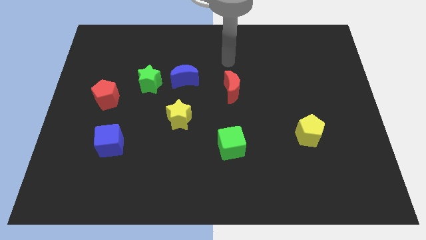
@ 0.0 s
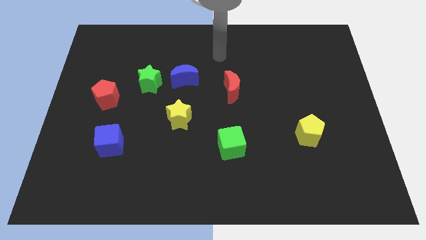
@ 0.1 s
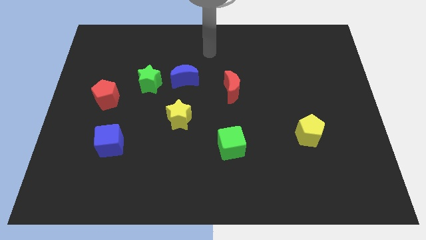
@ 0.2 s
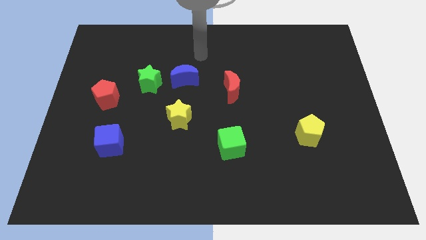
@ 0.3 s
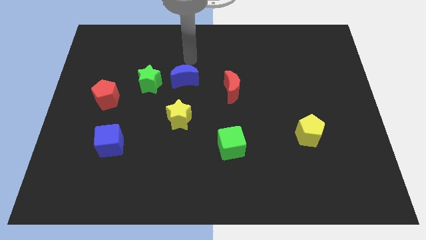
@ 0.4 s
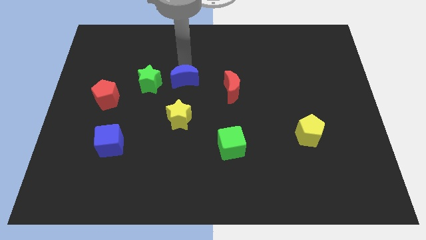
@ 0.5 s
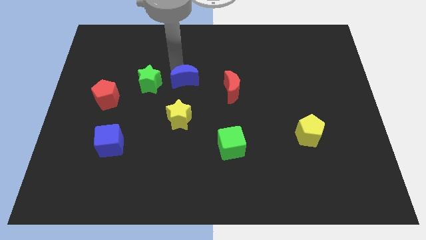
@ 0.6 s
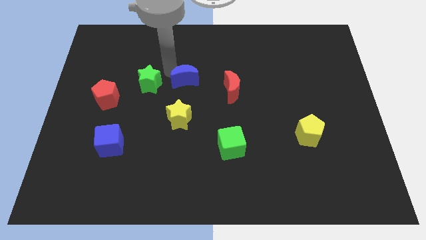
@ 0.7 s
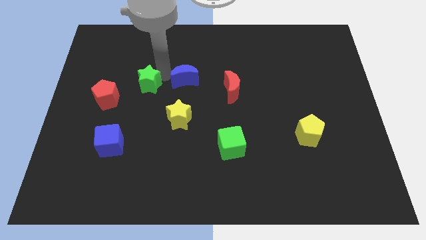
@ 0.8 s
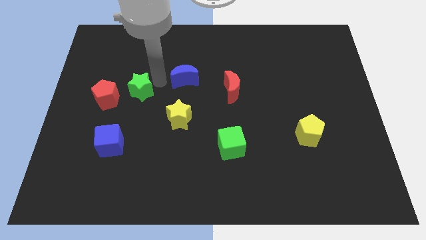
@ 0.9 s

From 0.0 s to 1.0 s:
move the blue moon away from the green star

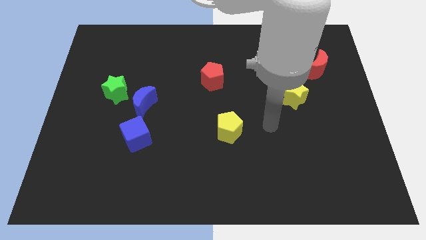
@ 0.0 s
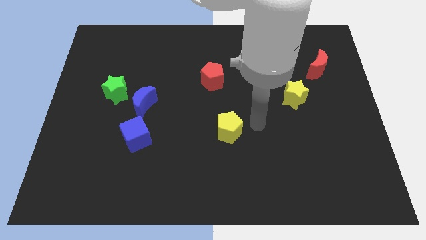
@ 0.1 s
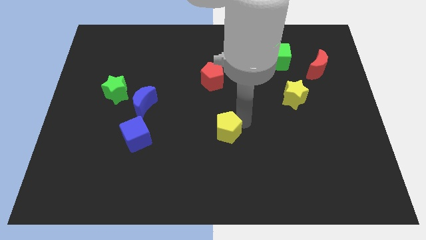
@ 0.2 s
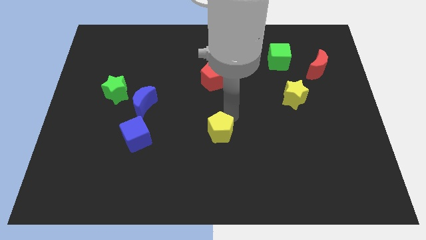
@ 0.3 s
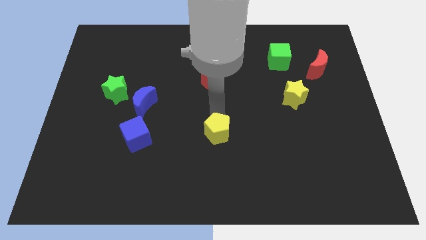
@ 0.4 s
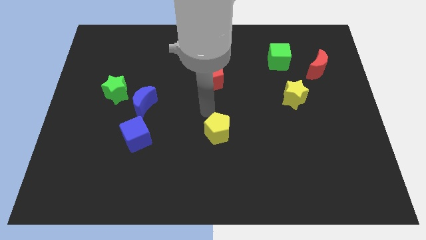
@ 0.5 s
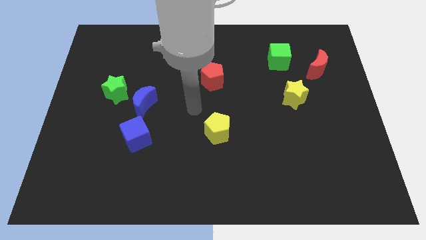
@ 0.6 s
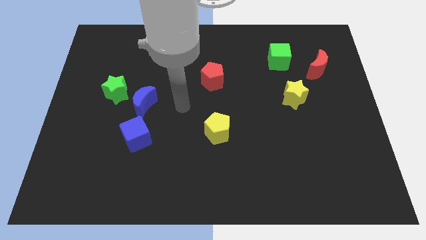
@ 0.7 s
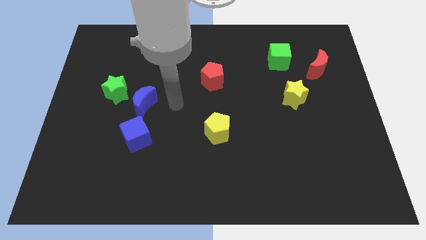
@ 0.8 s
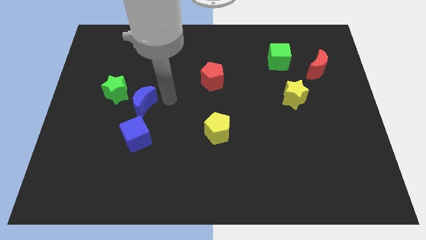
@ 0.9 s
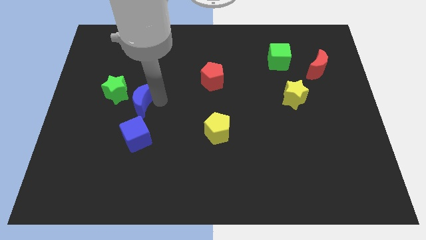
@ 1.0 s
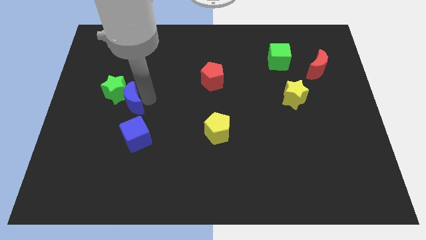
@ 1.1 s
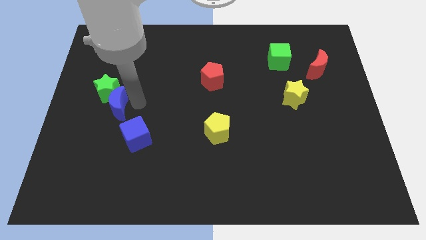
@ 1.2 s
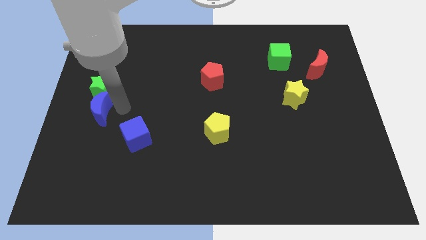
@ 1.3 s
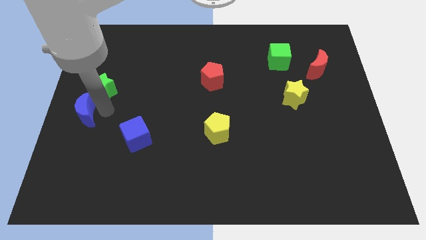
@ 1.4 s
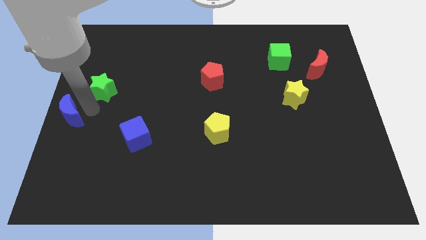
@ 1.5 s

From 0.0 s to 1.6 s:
separate the green star from the blue moon

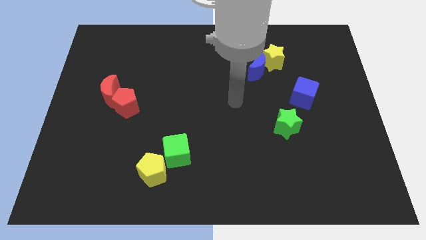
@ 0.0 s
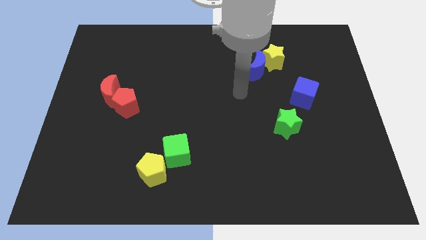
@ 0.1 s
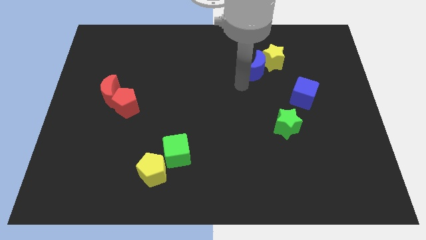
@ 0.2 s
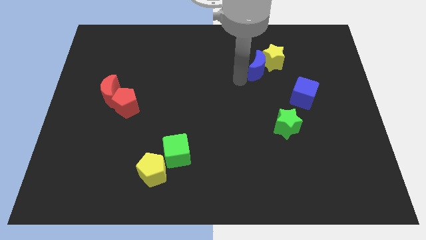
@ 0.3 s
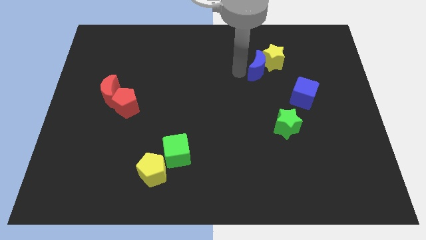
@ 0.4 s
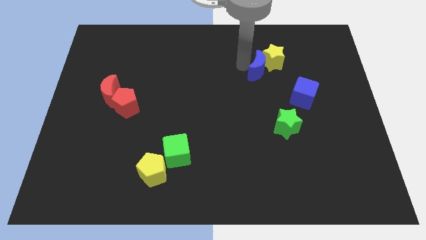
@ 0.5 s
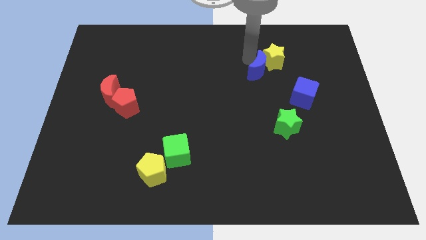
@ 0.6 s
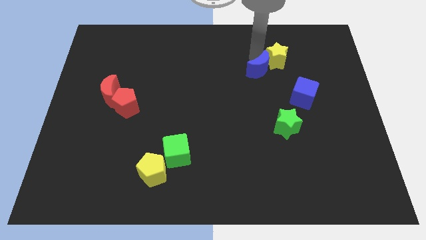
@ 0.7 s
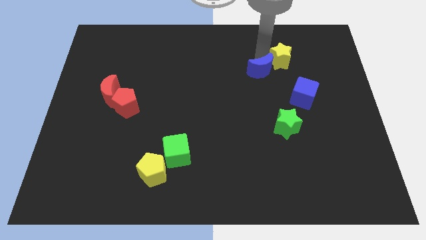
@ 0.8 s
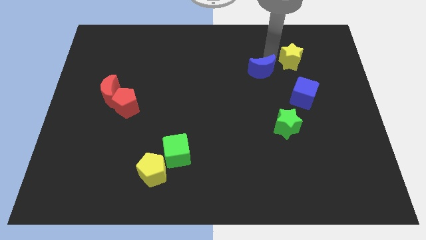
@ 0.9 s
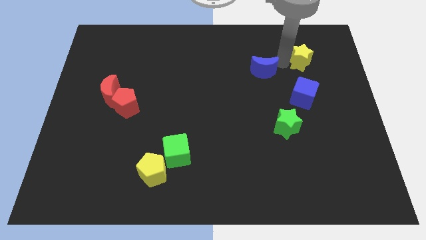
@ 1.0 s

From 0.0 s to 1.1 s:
separate the blue moon from the yellow star

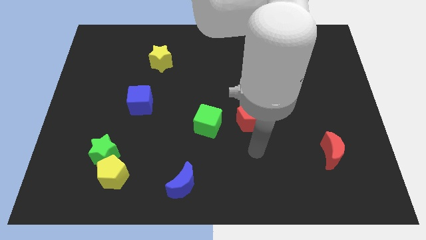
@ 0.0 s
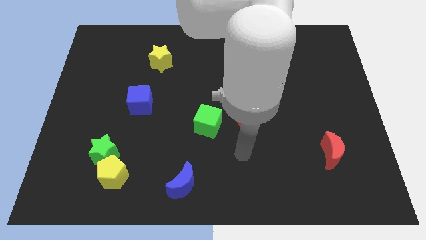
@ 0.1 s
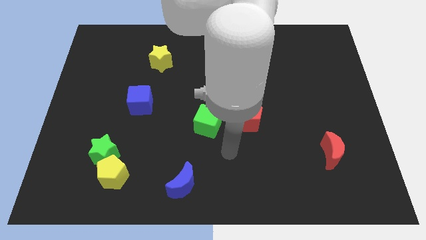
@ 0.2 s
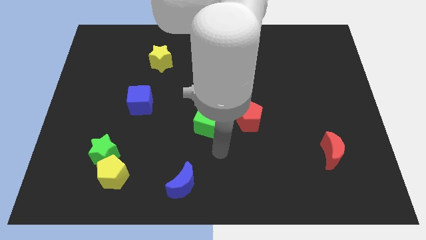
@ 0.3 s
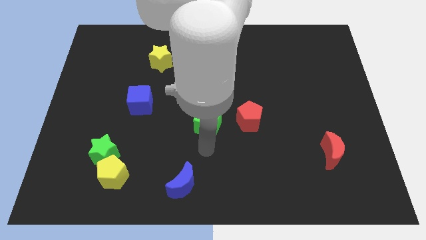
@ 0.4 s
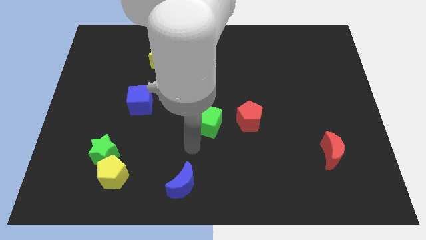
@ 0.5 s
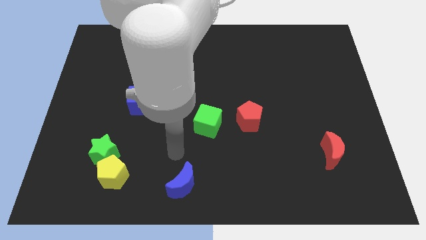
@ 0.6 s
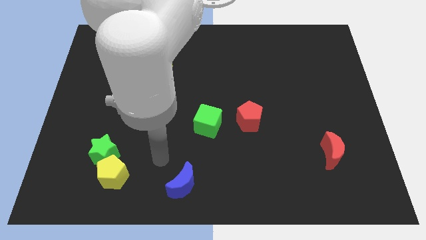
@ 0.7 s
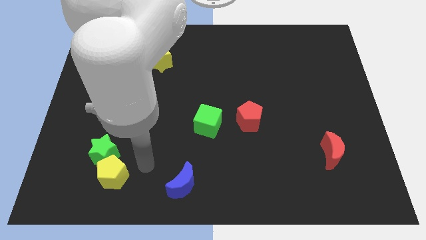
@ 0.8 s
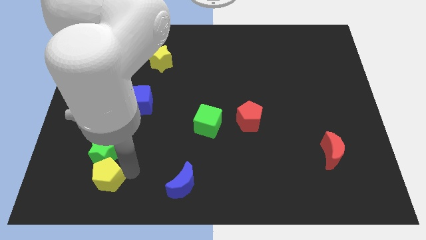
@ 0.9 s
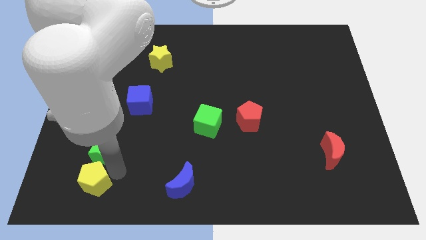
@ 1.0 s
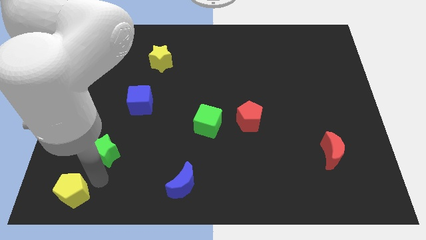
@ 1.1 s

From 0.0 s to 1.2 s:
pull the green star apart from the yellow pentagon

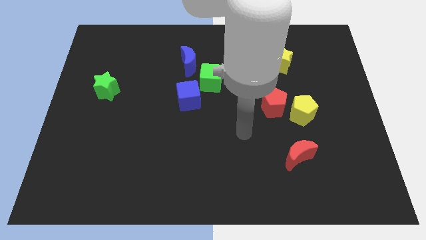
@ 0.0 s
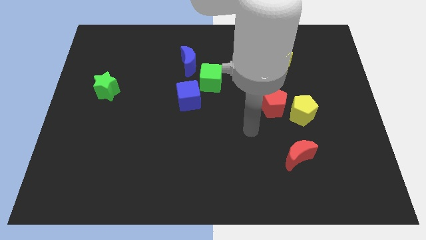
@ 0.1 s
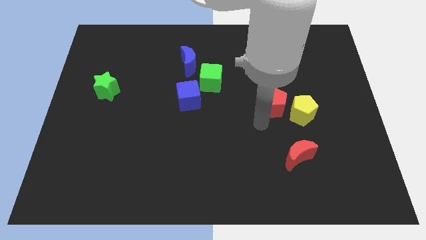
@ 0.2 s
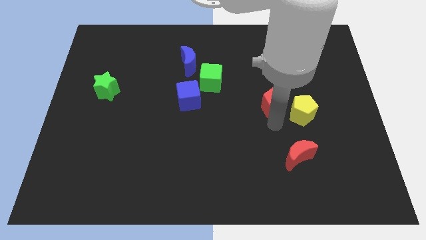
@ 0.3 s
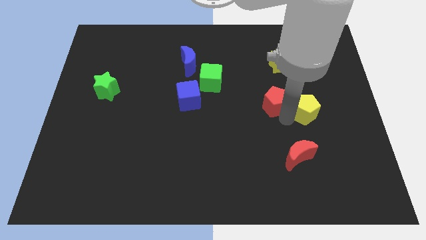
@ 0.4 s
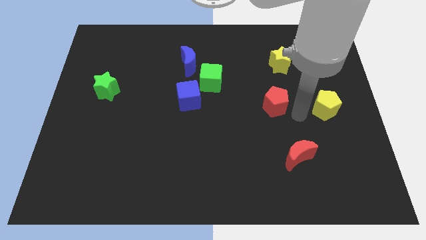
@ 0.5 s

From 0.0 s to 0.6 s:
move the red pentagon away from the yellow pentagon

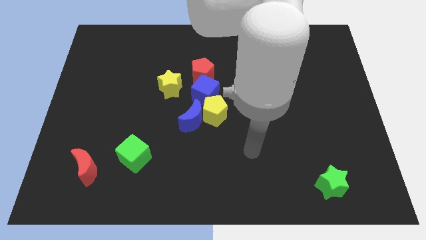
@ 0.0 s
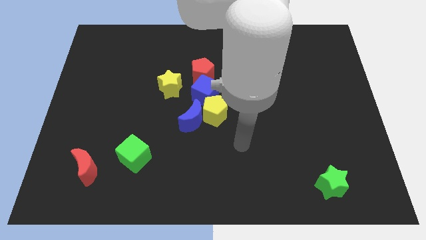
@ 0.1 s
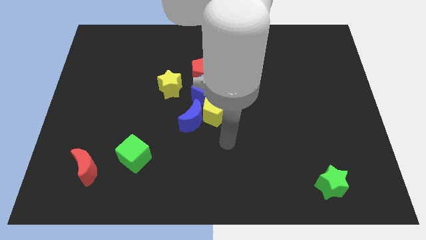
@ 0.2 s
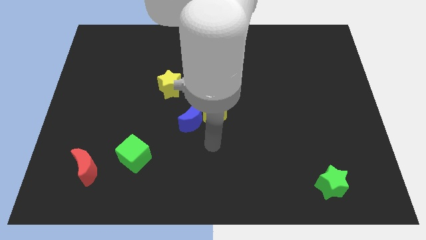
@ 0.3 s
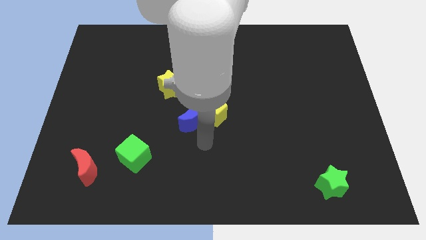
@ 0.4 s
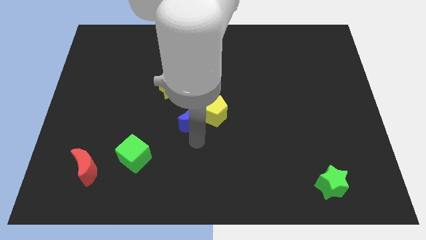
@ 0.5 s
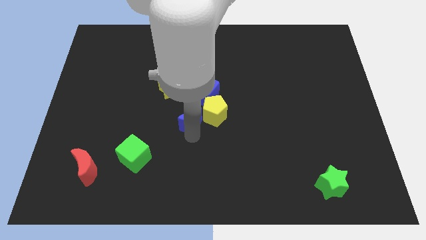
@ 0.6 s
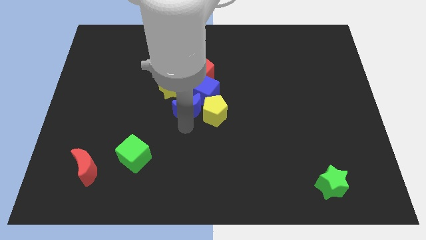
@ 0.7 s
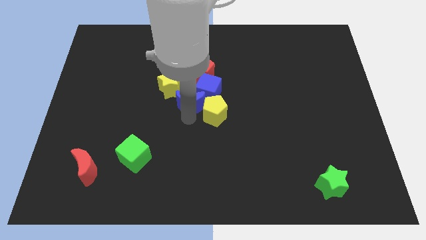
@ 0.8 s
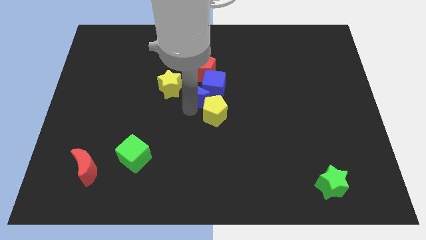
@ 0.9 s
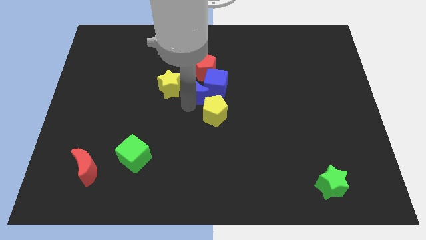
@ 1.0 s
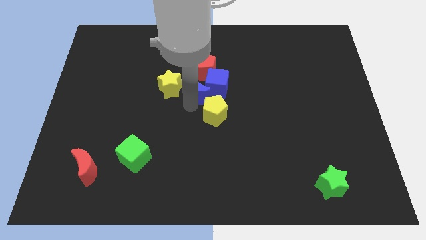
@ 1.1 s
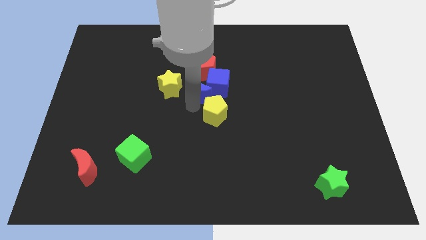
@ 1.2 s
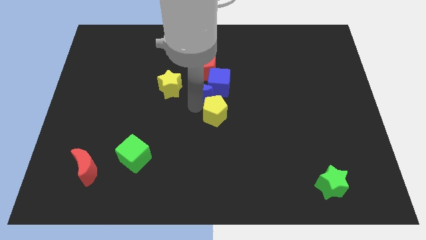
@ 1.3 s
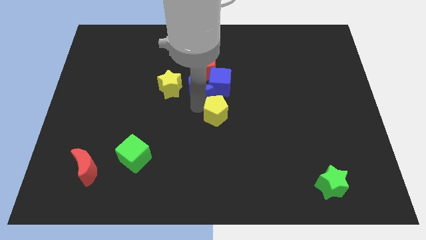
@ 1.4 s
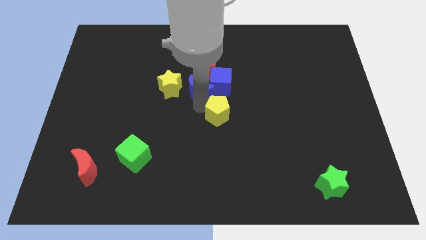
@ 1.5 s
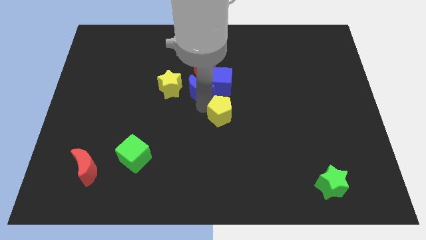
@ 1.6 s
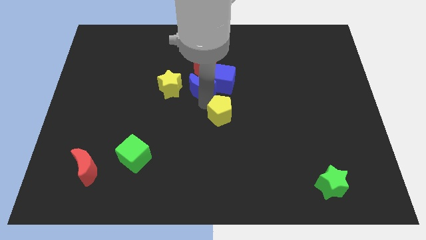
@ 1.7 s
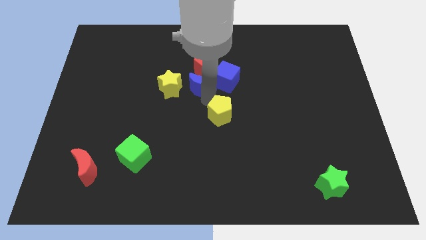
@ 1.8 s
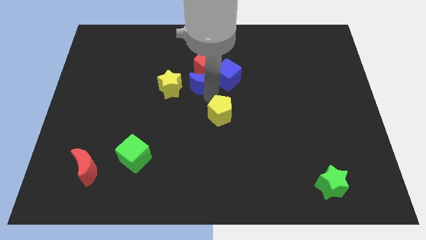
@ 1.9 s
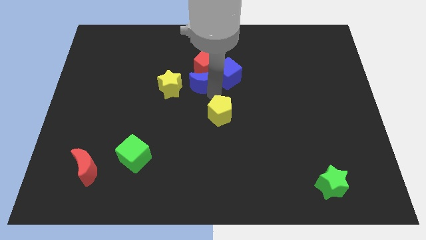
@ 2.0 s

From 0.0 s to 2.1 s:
pull the yellow pentagon apart from the blue moon and blue cube

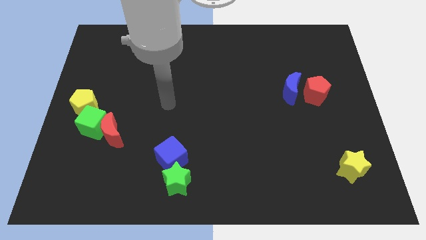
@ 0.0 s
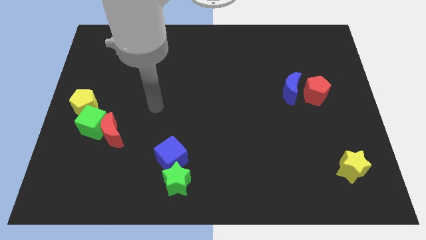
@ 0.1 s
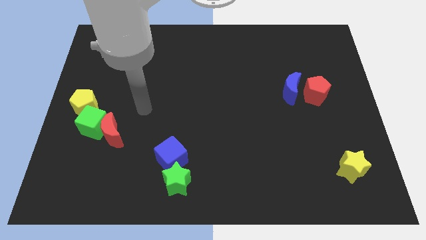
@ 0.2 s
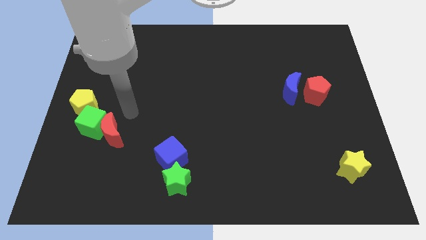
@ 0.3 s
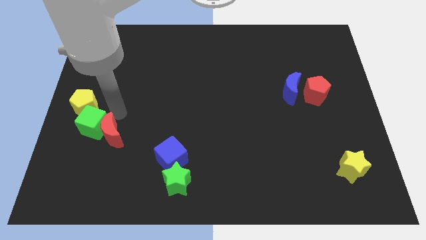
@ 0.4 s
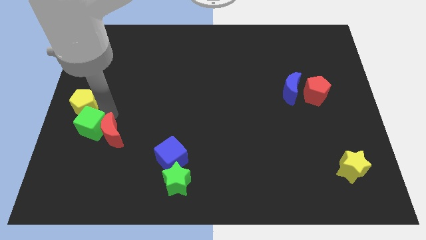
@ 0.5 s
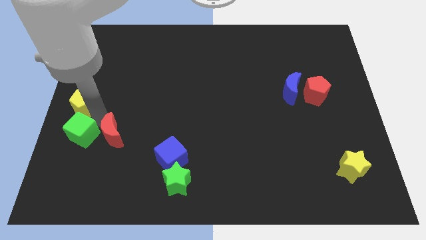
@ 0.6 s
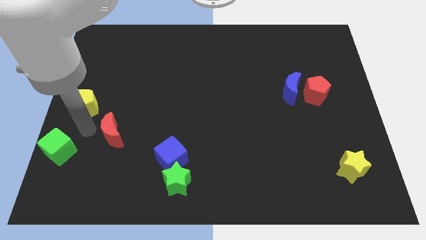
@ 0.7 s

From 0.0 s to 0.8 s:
pull the red moon apart from the green cube

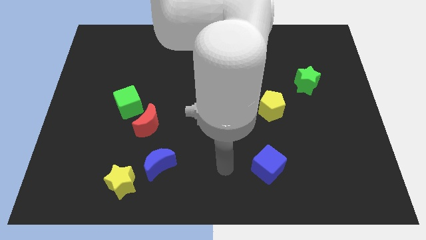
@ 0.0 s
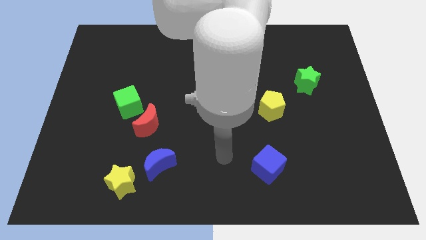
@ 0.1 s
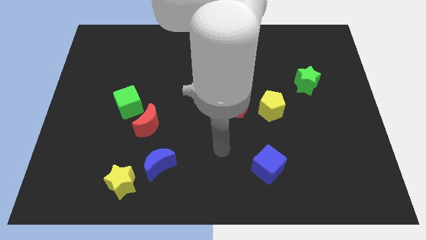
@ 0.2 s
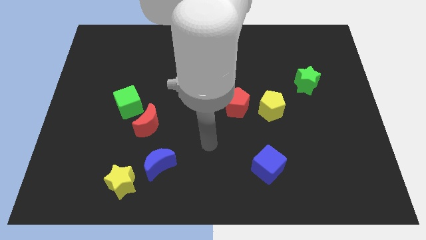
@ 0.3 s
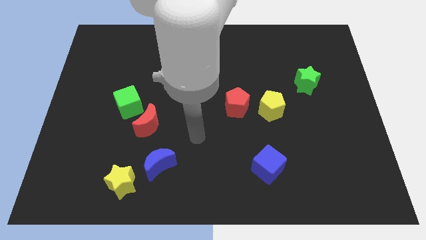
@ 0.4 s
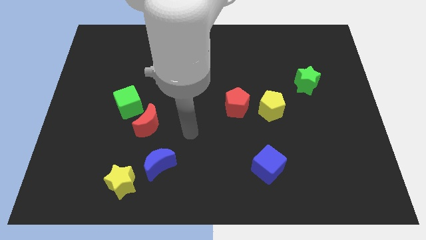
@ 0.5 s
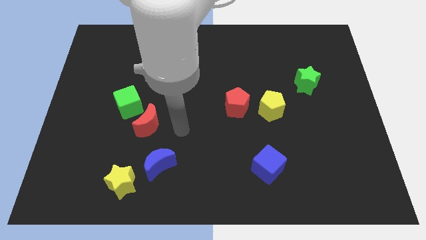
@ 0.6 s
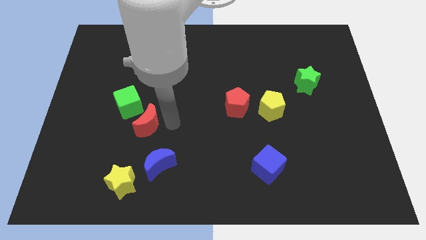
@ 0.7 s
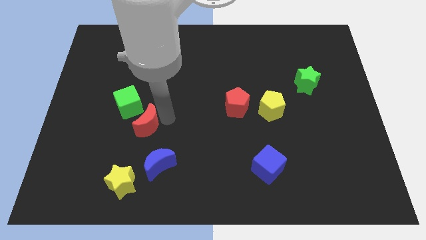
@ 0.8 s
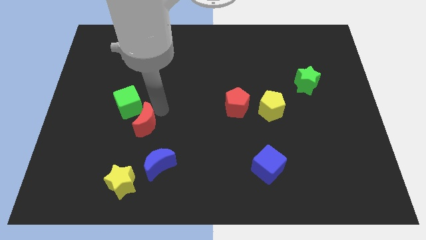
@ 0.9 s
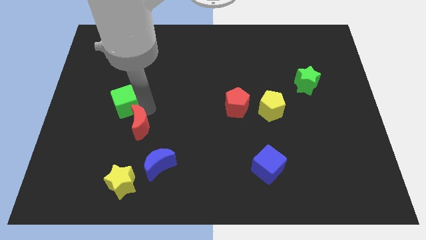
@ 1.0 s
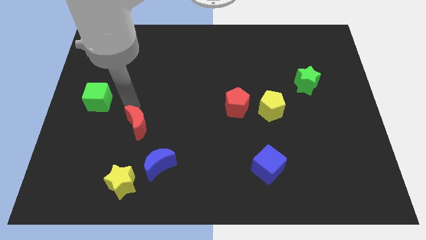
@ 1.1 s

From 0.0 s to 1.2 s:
separate the red moon from the green cube
